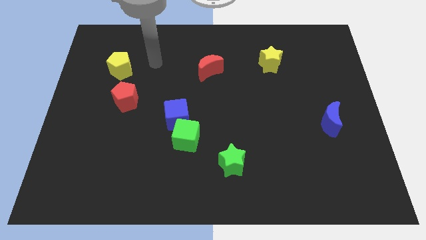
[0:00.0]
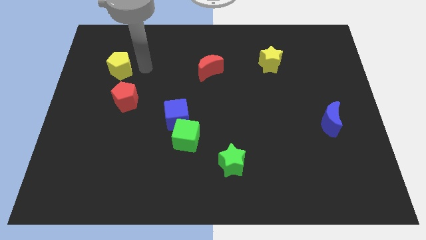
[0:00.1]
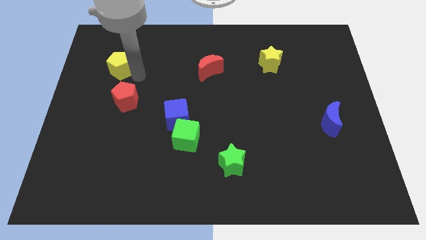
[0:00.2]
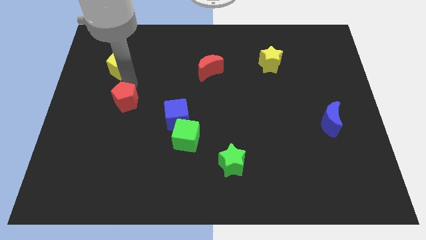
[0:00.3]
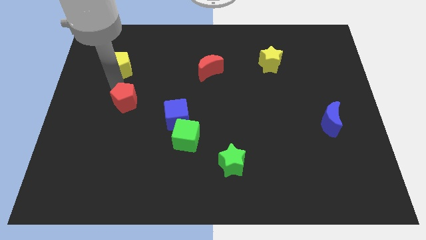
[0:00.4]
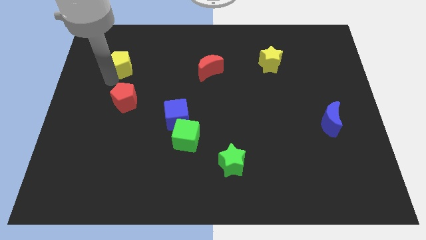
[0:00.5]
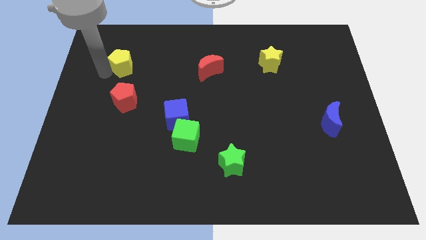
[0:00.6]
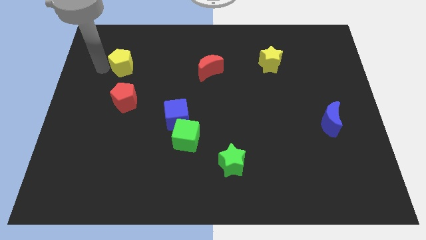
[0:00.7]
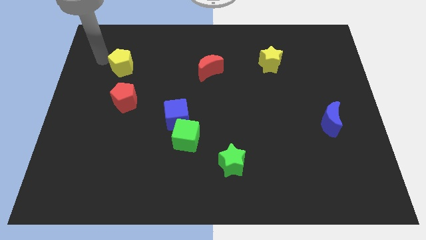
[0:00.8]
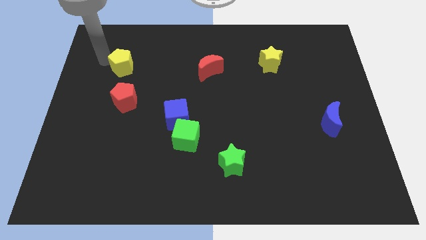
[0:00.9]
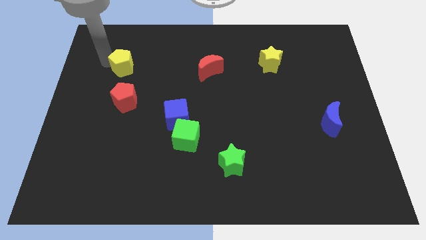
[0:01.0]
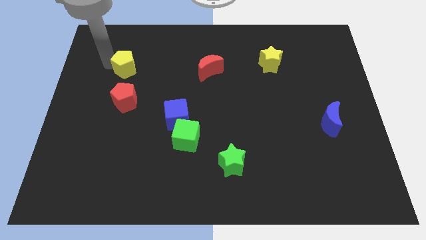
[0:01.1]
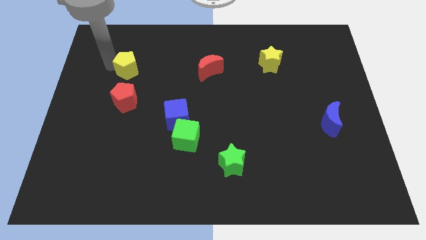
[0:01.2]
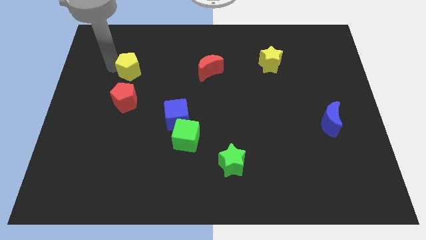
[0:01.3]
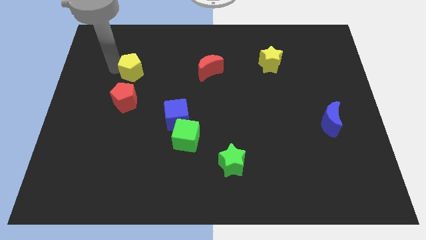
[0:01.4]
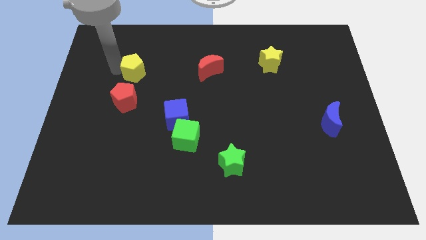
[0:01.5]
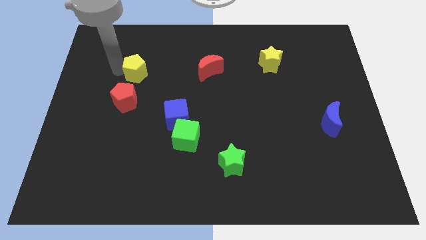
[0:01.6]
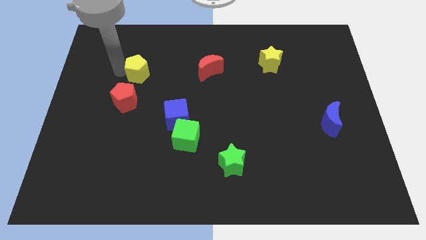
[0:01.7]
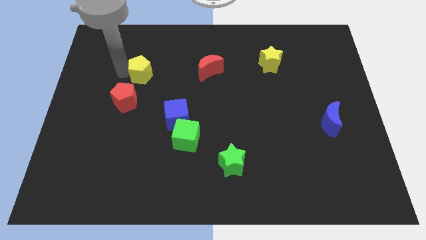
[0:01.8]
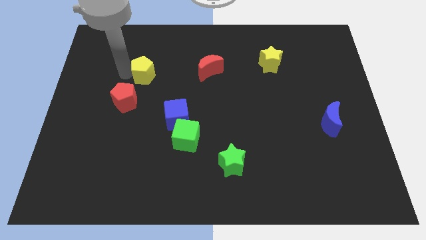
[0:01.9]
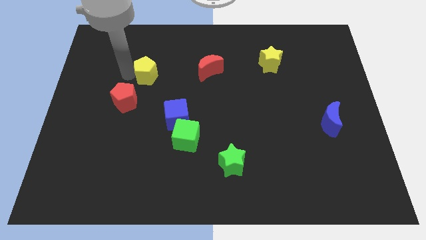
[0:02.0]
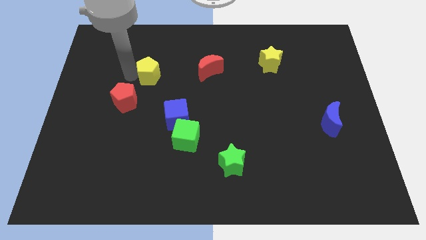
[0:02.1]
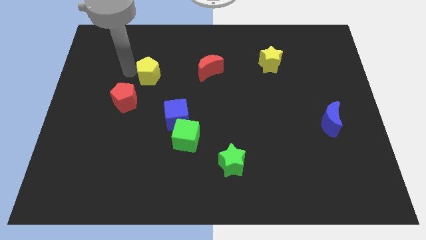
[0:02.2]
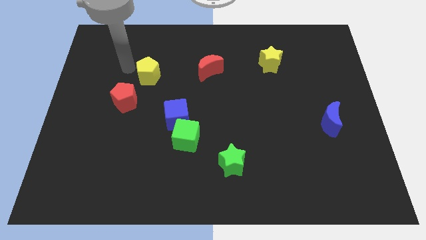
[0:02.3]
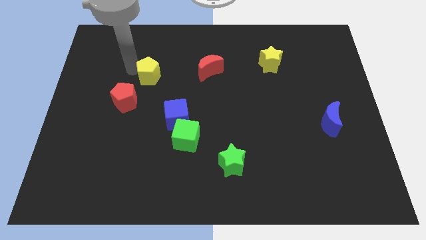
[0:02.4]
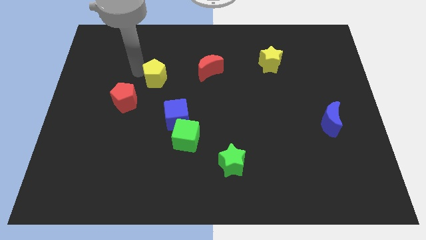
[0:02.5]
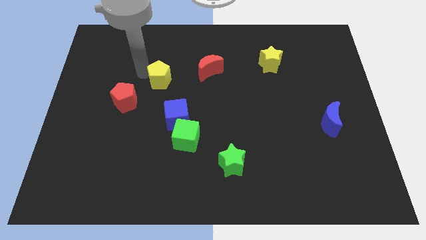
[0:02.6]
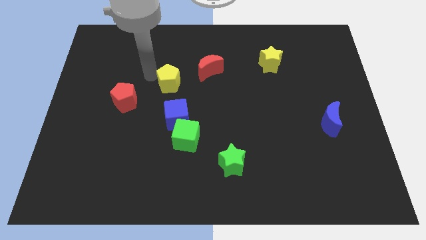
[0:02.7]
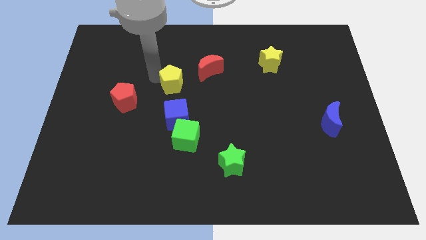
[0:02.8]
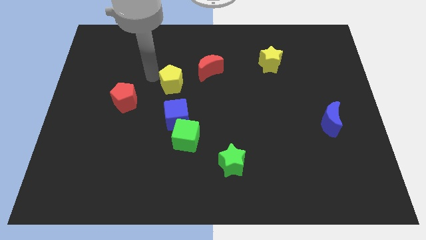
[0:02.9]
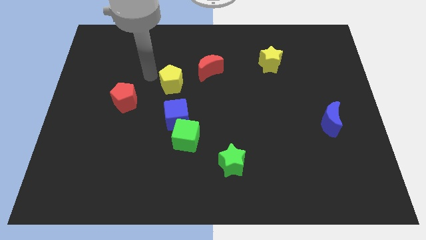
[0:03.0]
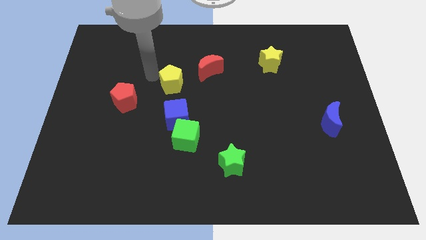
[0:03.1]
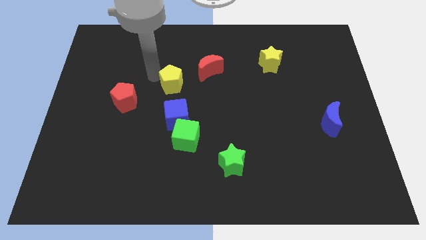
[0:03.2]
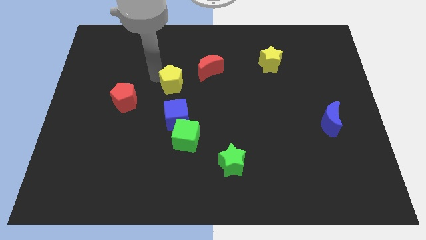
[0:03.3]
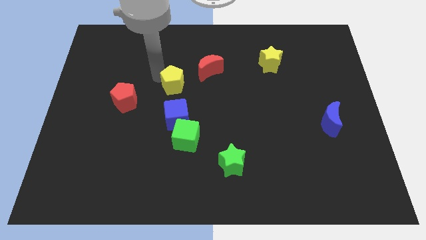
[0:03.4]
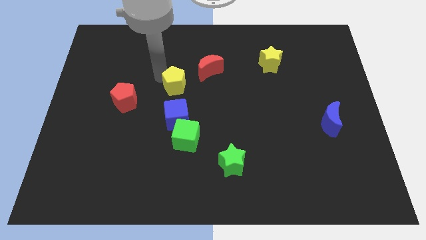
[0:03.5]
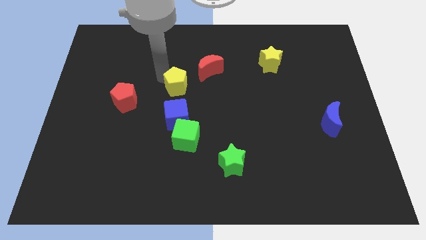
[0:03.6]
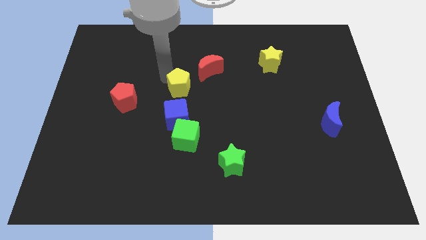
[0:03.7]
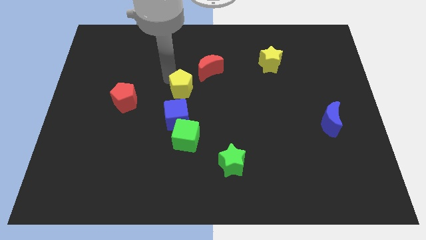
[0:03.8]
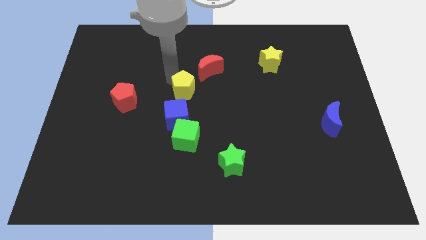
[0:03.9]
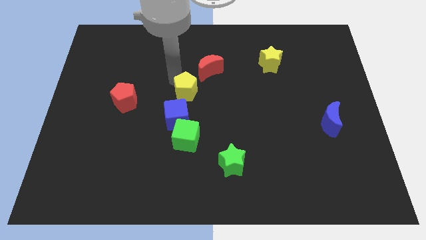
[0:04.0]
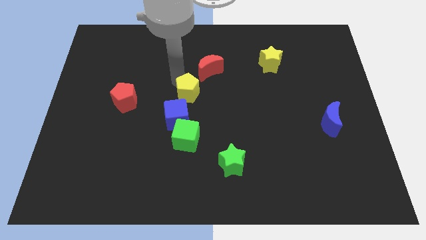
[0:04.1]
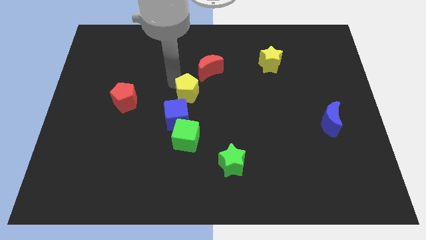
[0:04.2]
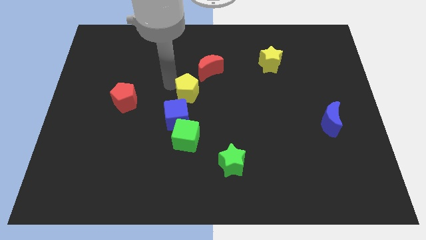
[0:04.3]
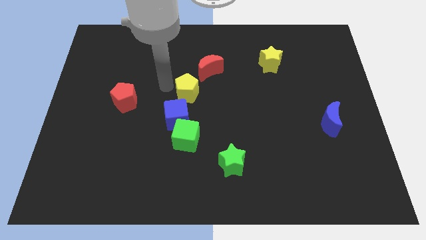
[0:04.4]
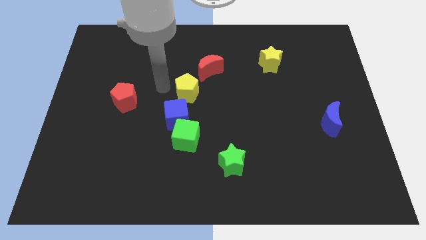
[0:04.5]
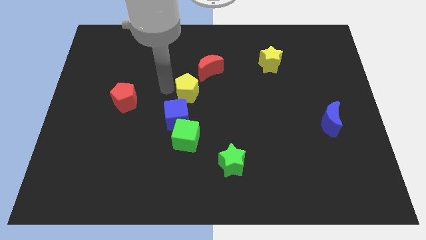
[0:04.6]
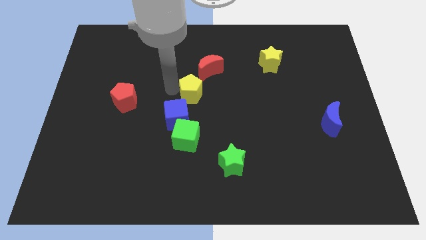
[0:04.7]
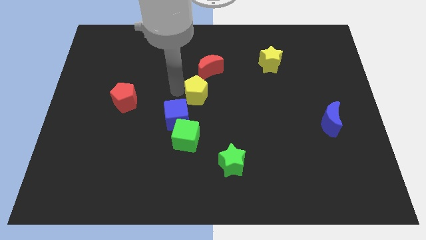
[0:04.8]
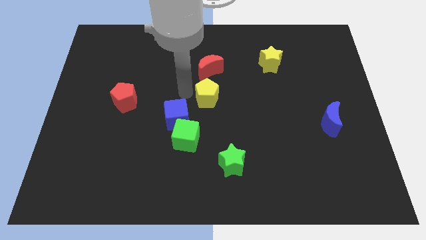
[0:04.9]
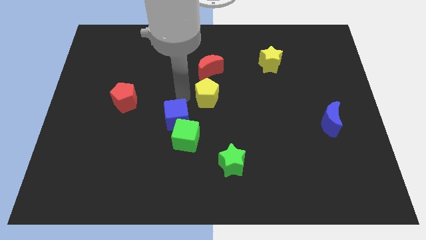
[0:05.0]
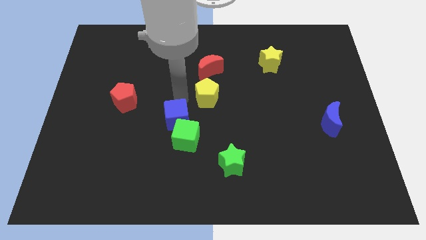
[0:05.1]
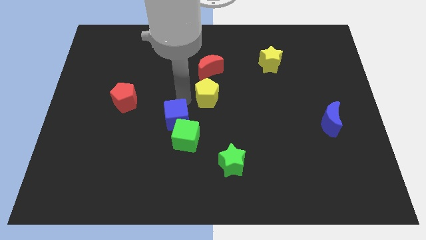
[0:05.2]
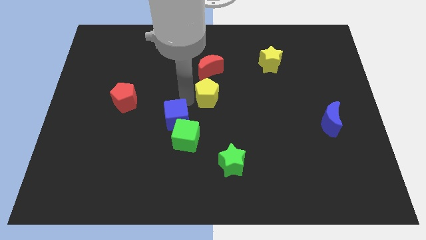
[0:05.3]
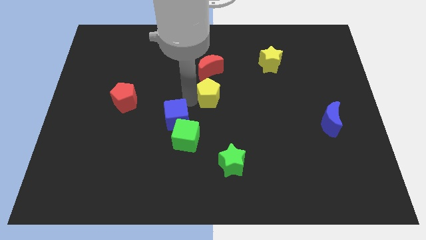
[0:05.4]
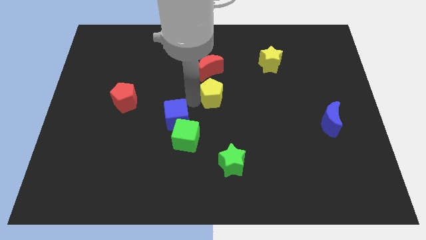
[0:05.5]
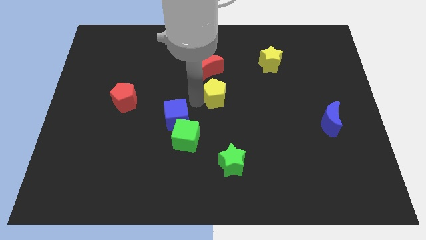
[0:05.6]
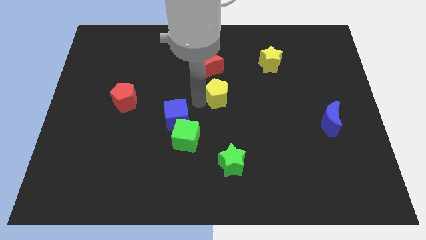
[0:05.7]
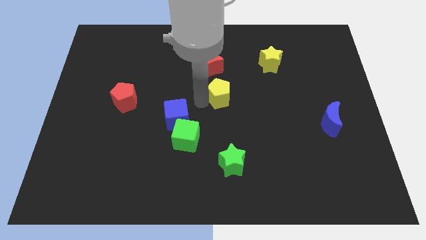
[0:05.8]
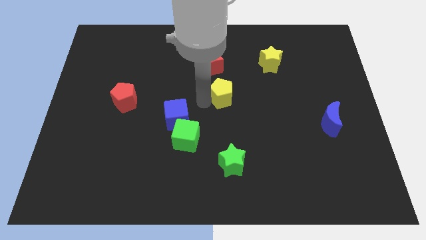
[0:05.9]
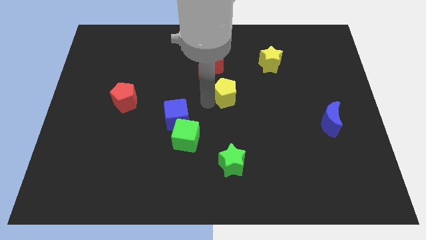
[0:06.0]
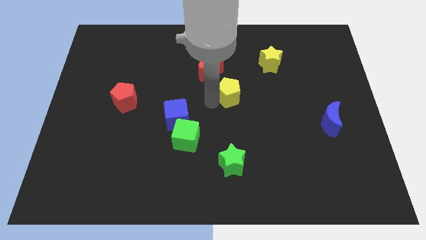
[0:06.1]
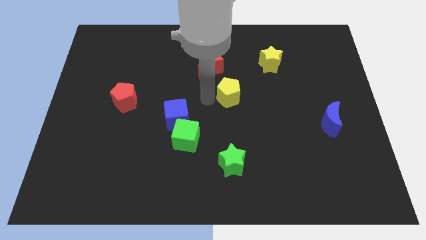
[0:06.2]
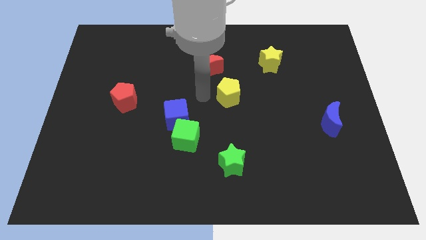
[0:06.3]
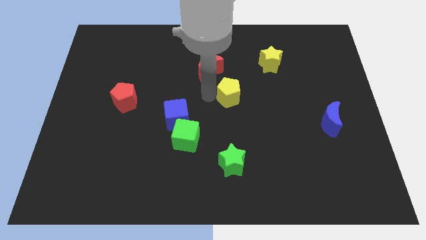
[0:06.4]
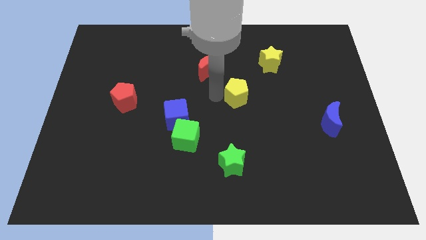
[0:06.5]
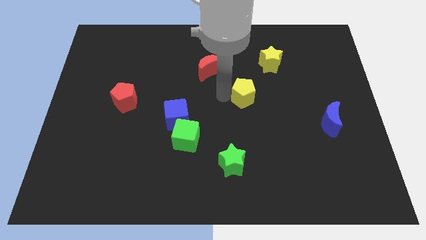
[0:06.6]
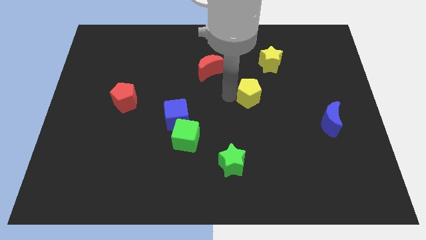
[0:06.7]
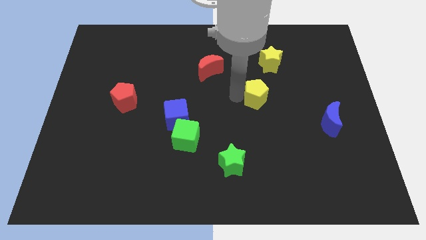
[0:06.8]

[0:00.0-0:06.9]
slide the yellow pentagon below the yellow star
